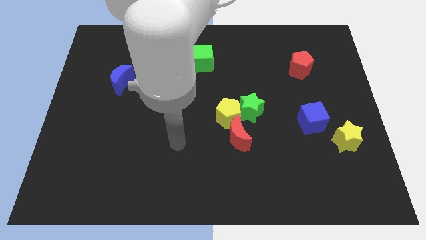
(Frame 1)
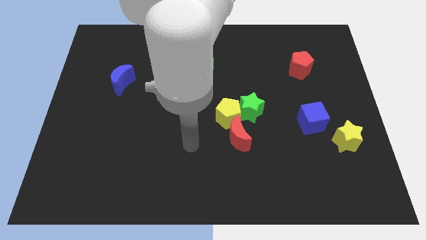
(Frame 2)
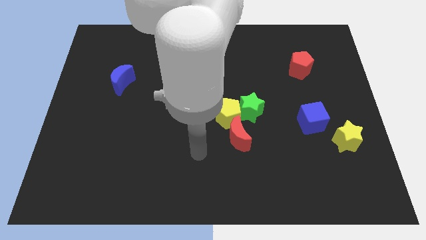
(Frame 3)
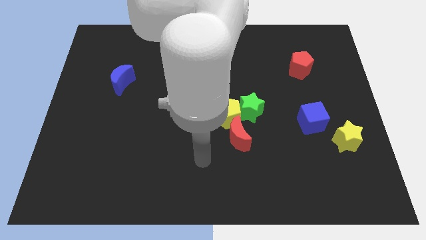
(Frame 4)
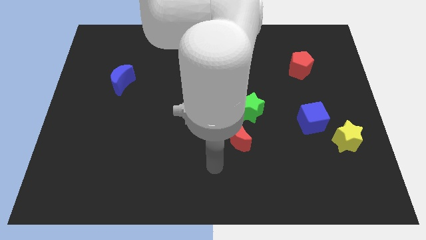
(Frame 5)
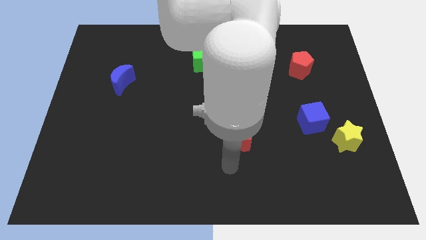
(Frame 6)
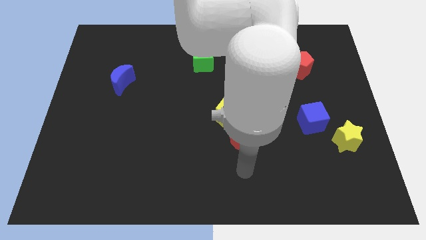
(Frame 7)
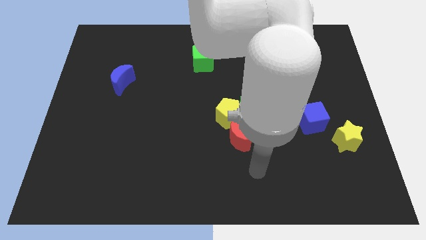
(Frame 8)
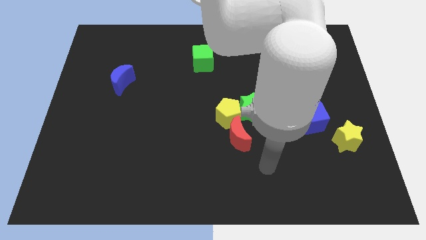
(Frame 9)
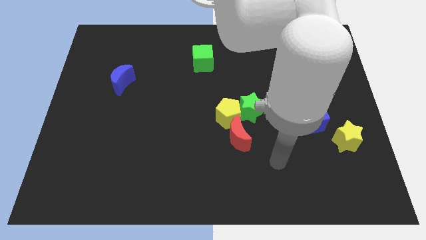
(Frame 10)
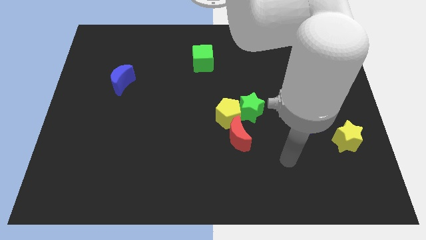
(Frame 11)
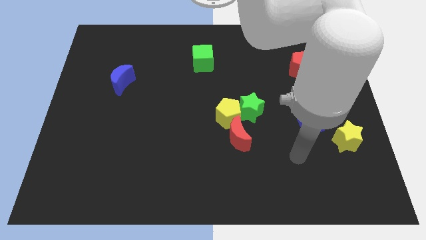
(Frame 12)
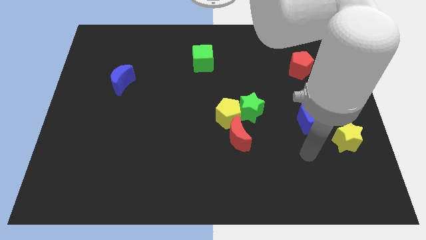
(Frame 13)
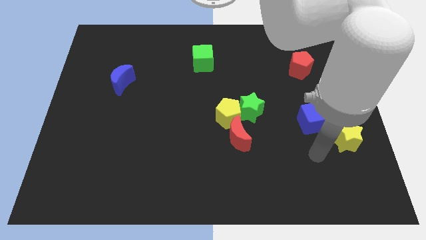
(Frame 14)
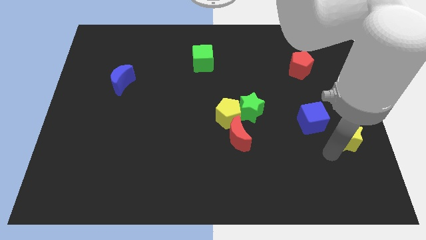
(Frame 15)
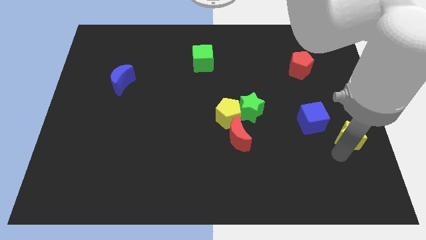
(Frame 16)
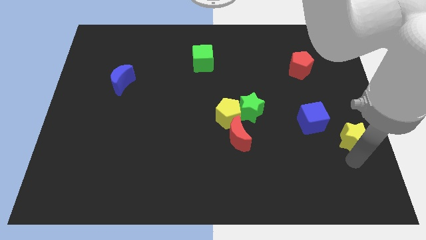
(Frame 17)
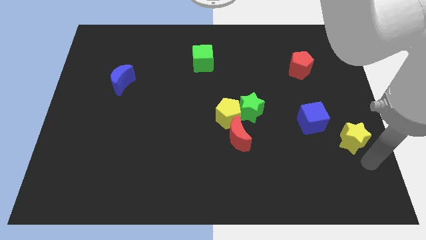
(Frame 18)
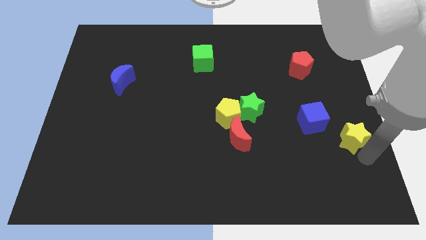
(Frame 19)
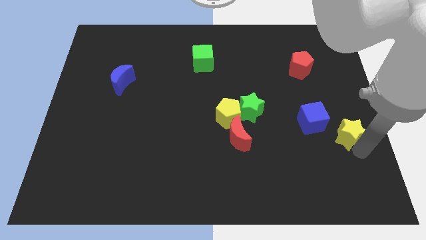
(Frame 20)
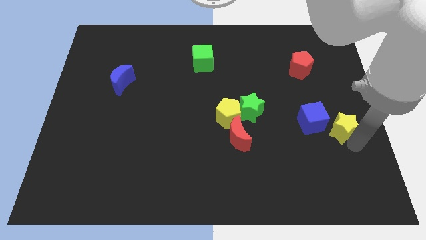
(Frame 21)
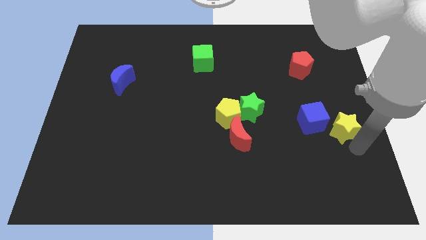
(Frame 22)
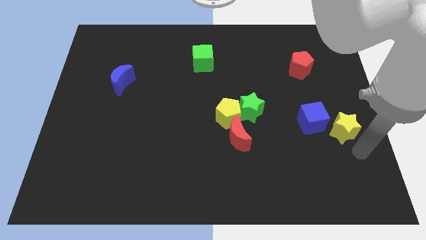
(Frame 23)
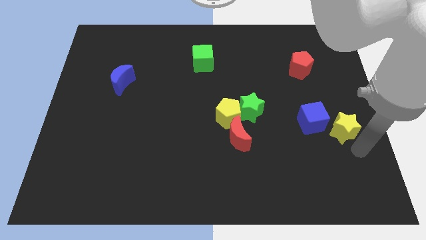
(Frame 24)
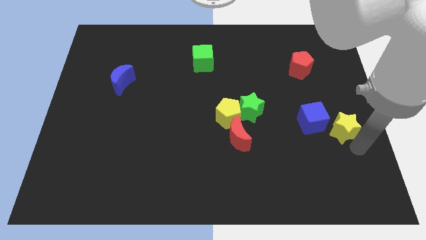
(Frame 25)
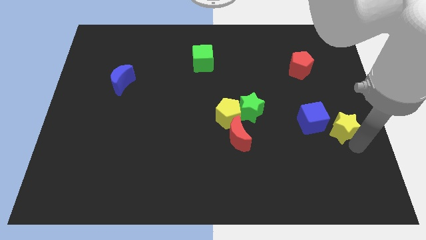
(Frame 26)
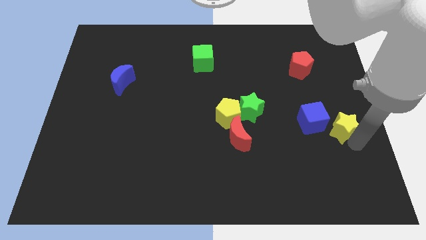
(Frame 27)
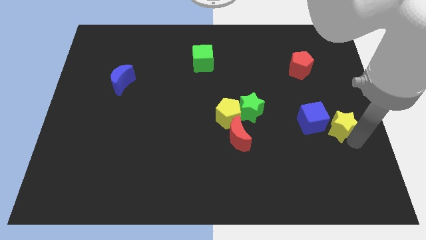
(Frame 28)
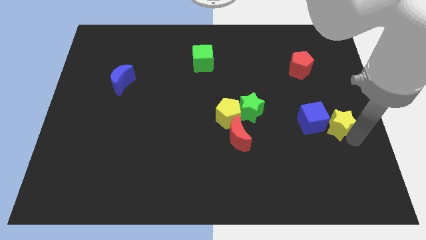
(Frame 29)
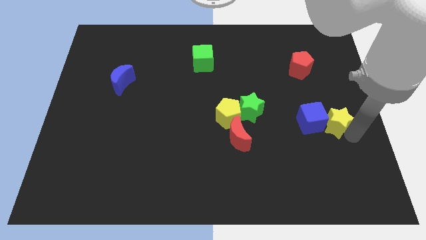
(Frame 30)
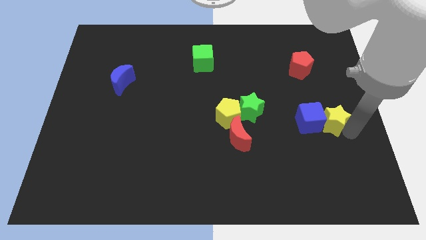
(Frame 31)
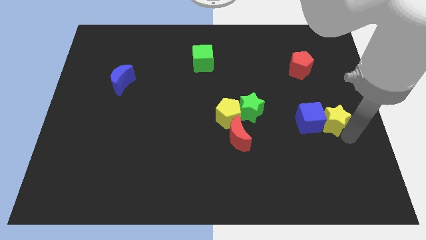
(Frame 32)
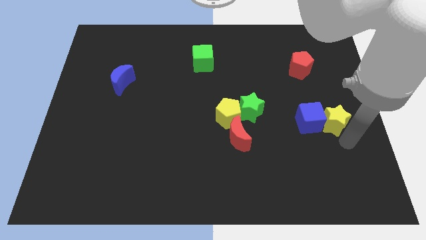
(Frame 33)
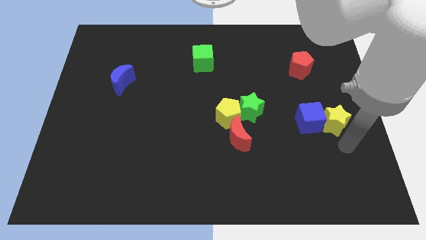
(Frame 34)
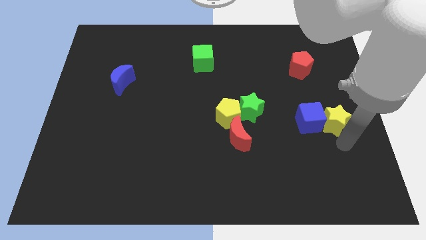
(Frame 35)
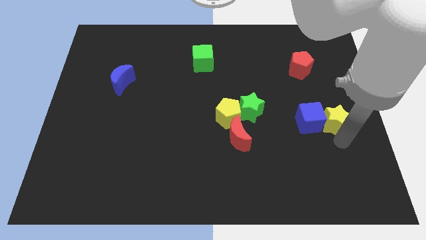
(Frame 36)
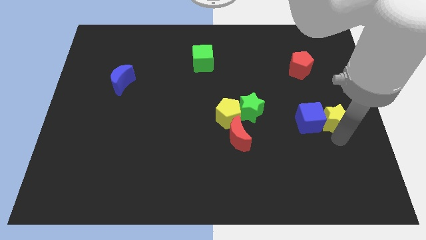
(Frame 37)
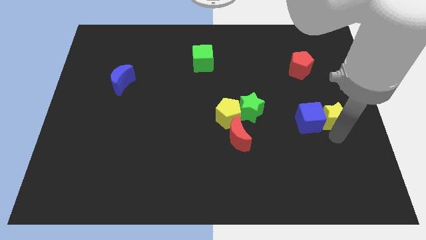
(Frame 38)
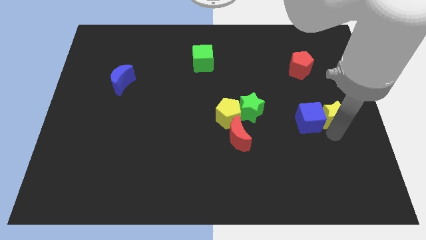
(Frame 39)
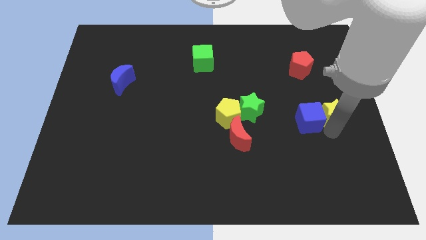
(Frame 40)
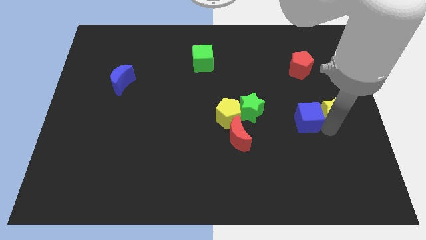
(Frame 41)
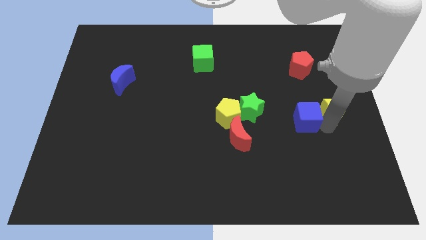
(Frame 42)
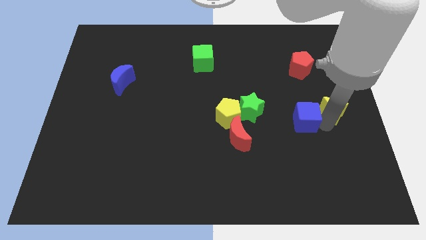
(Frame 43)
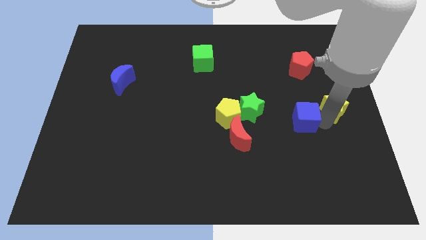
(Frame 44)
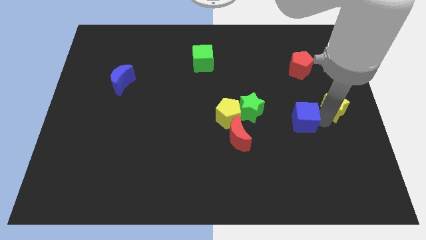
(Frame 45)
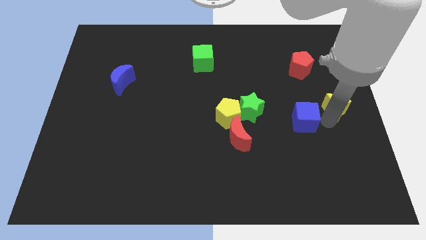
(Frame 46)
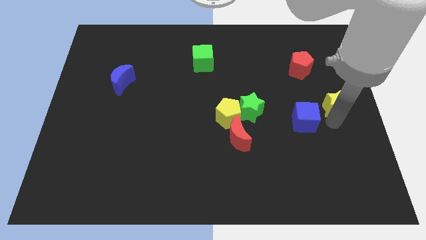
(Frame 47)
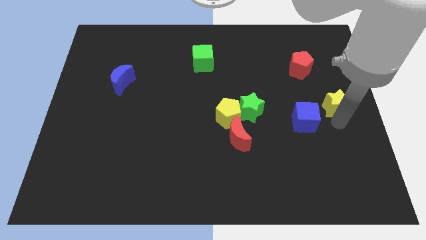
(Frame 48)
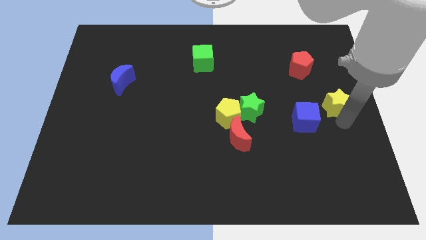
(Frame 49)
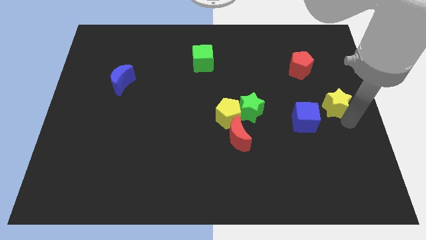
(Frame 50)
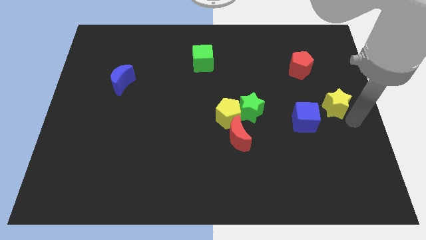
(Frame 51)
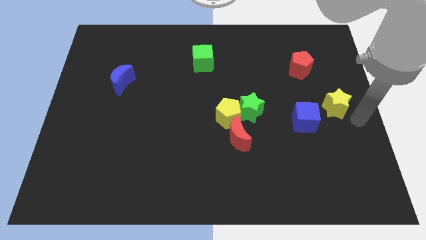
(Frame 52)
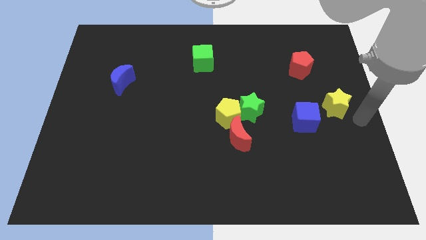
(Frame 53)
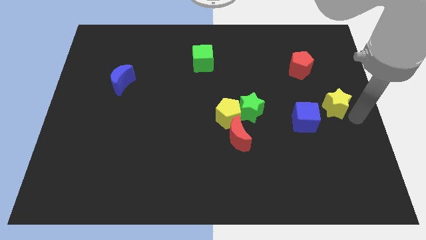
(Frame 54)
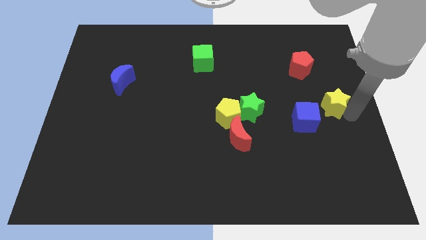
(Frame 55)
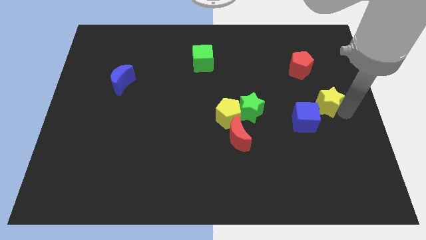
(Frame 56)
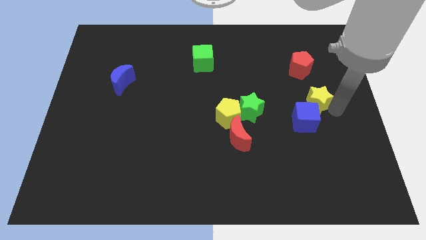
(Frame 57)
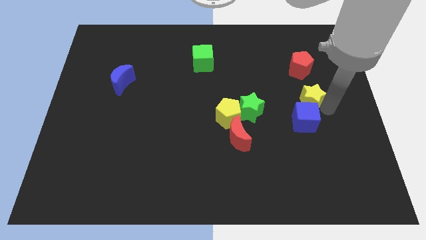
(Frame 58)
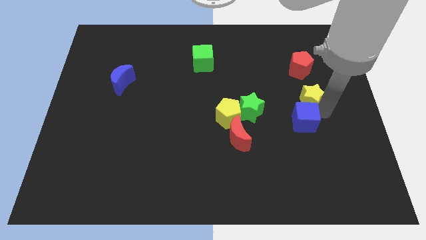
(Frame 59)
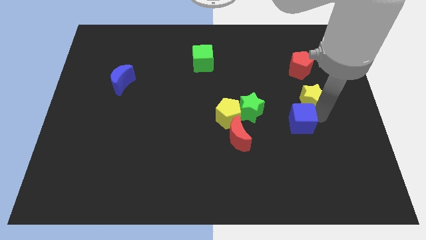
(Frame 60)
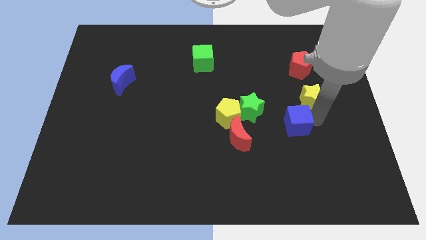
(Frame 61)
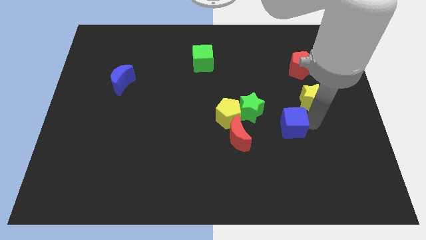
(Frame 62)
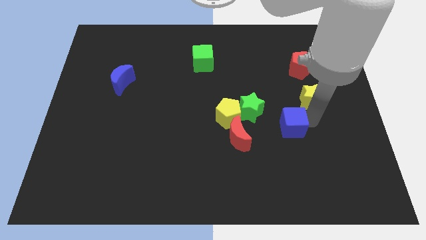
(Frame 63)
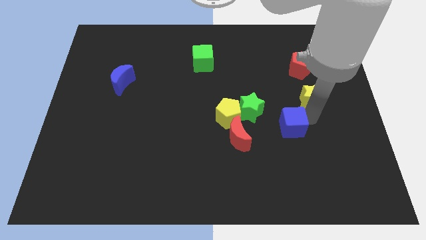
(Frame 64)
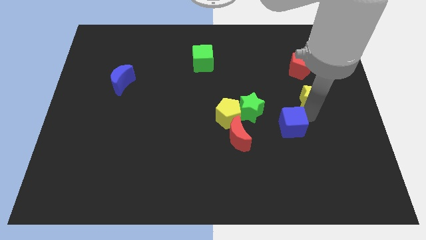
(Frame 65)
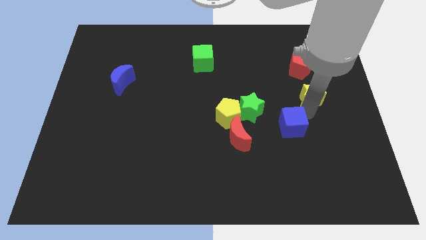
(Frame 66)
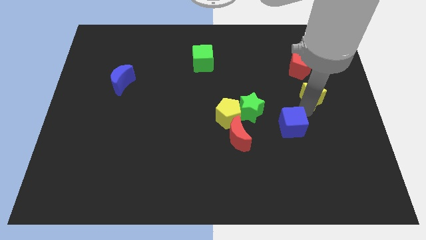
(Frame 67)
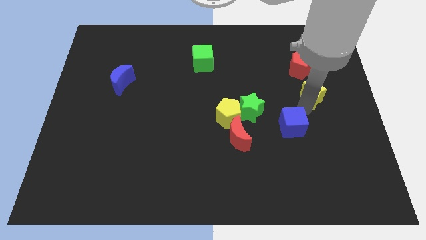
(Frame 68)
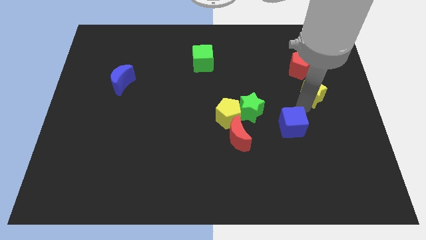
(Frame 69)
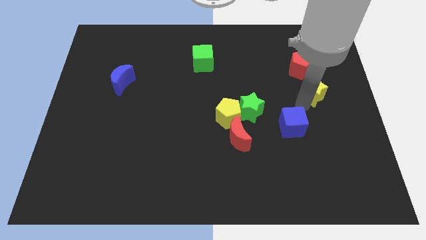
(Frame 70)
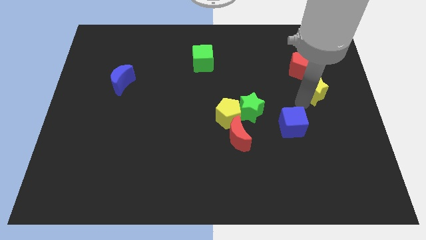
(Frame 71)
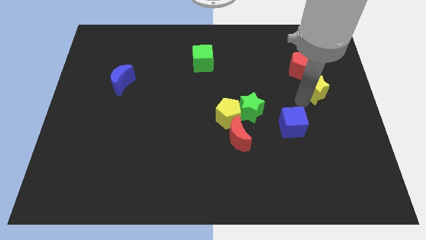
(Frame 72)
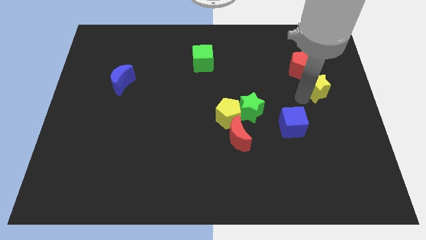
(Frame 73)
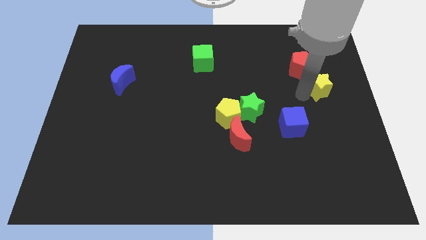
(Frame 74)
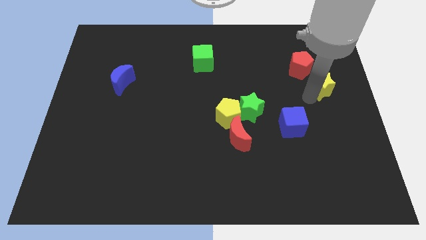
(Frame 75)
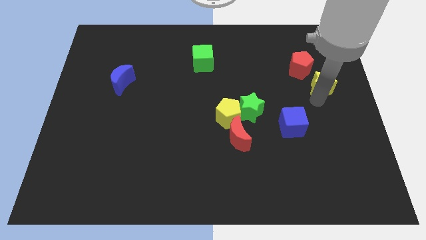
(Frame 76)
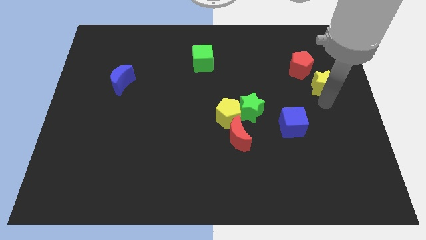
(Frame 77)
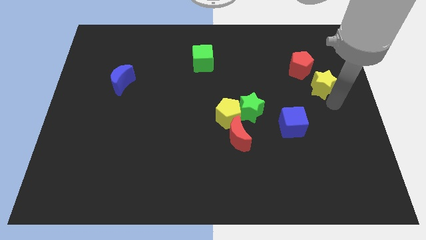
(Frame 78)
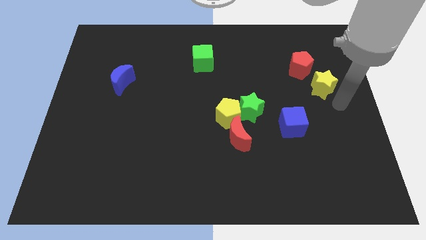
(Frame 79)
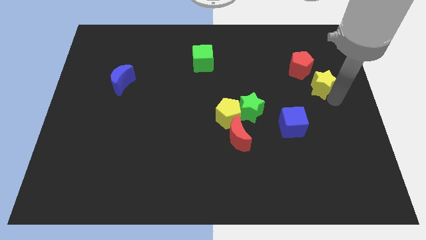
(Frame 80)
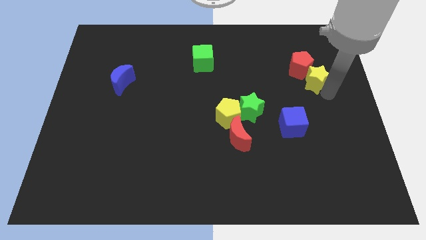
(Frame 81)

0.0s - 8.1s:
put the yellow star next to the red pentagon
